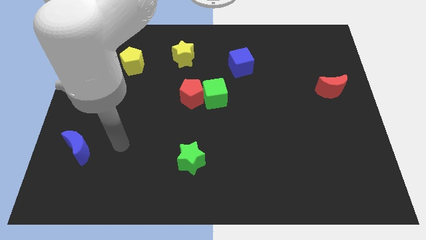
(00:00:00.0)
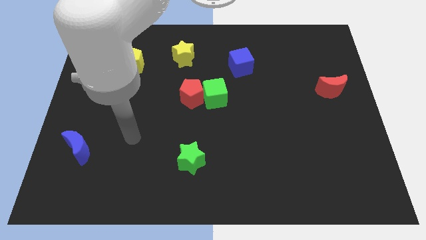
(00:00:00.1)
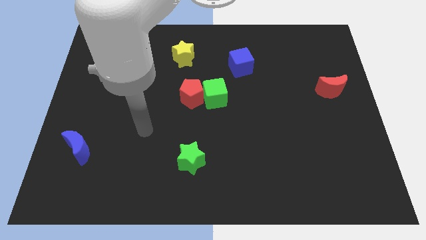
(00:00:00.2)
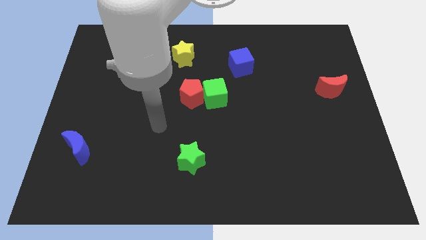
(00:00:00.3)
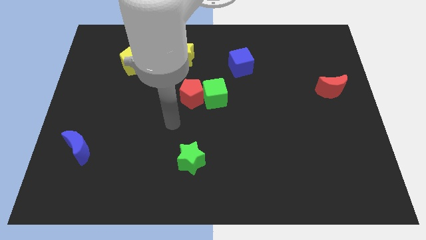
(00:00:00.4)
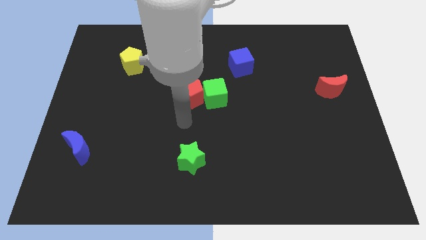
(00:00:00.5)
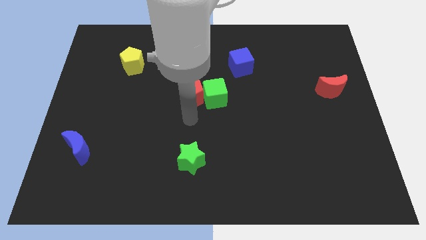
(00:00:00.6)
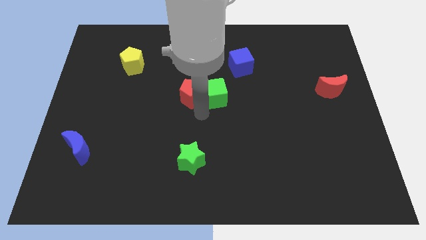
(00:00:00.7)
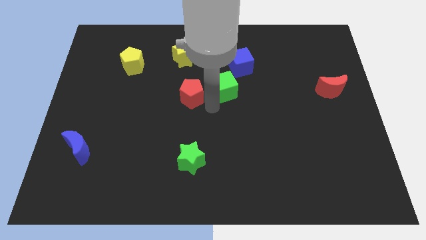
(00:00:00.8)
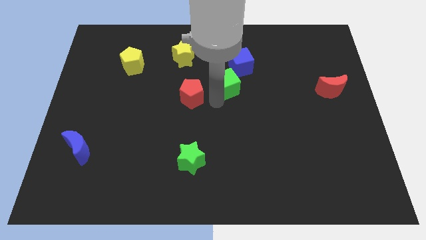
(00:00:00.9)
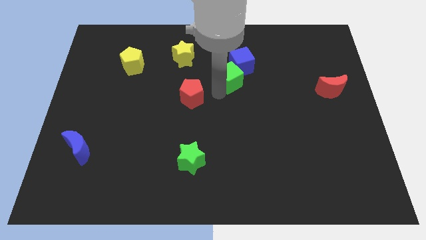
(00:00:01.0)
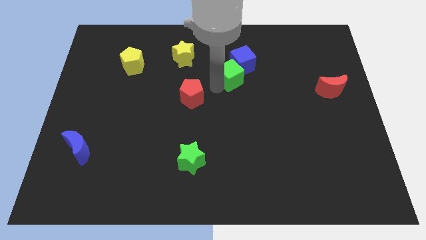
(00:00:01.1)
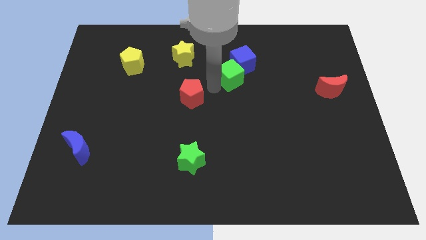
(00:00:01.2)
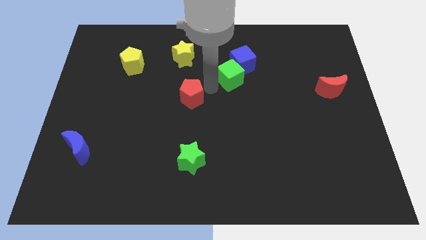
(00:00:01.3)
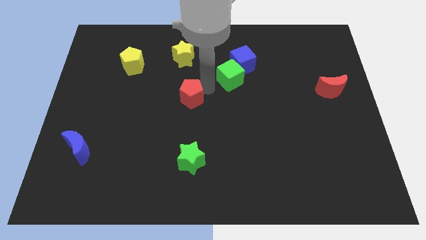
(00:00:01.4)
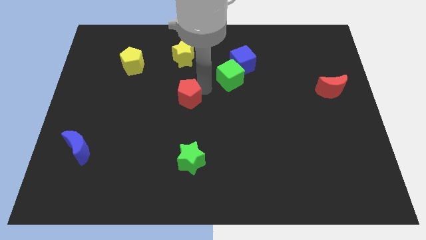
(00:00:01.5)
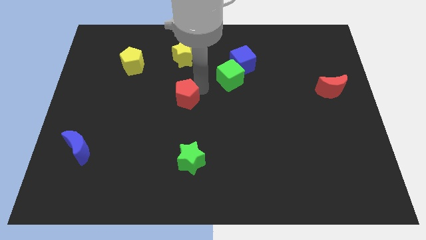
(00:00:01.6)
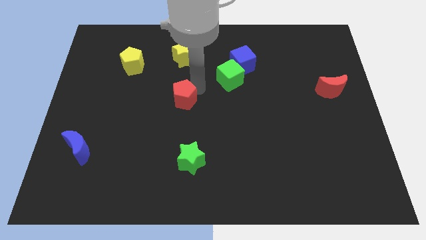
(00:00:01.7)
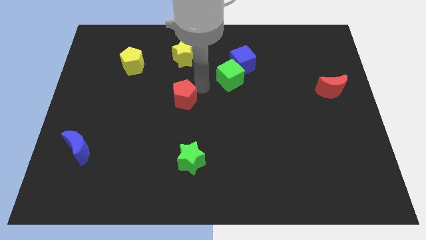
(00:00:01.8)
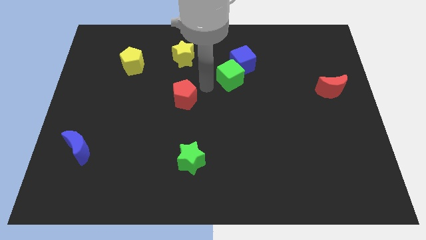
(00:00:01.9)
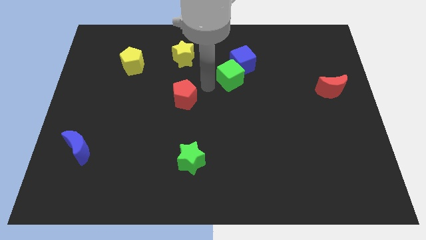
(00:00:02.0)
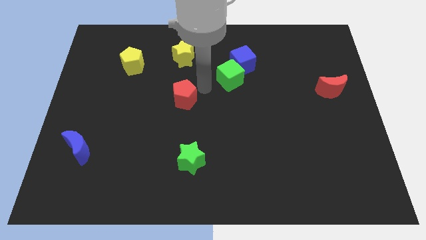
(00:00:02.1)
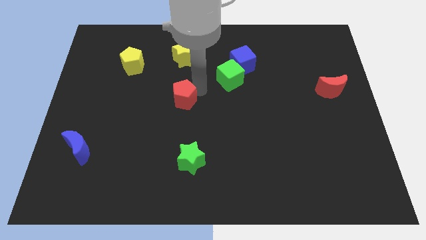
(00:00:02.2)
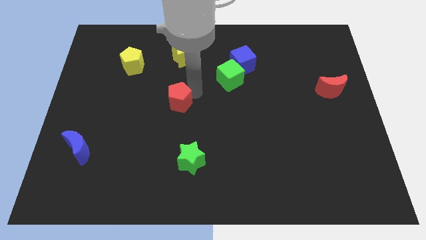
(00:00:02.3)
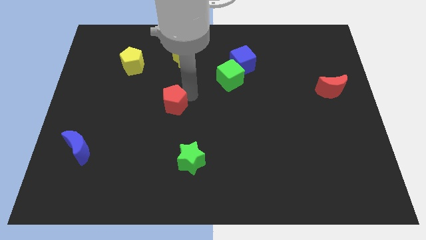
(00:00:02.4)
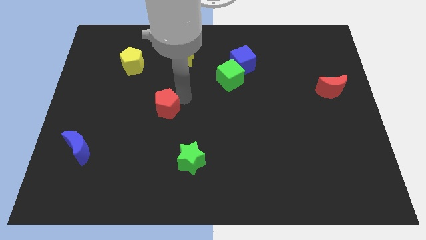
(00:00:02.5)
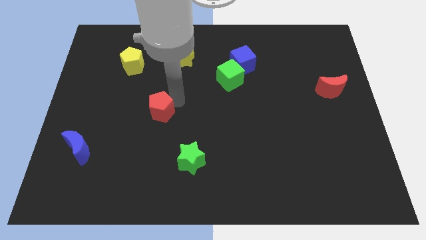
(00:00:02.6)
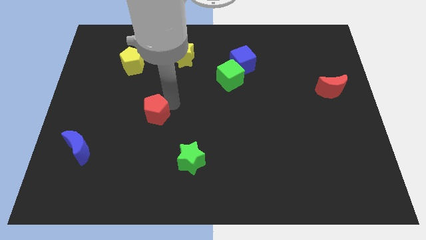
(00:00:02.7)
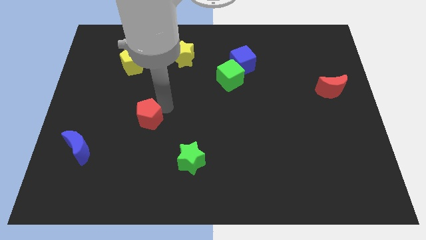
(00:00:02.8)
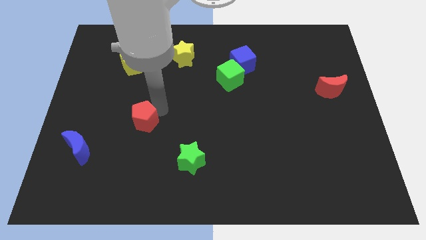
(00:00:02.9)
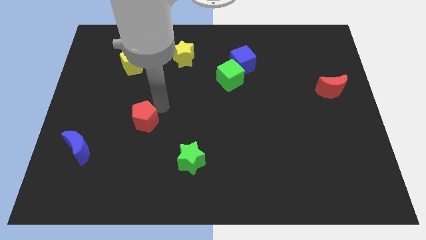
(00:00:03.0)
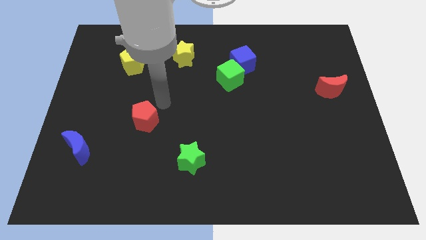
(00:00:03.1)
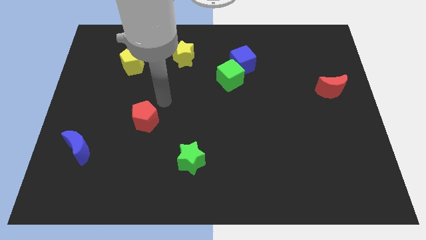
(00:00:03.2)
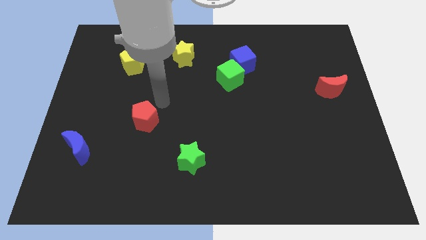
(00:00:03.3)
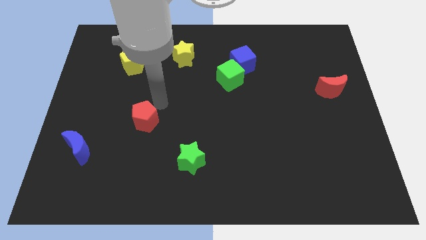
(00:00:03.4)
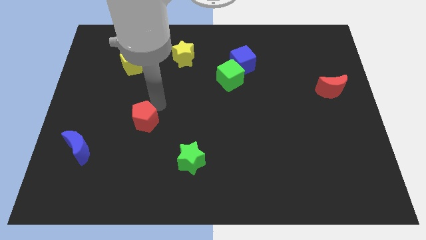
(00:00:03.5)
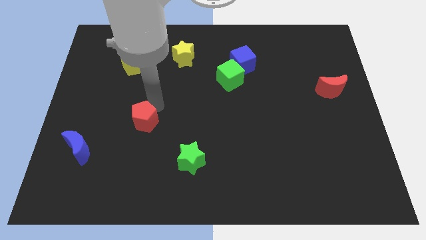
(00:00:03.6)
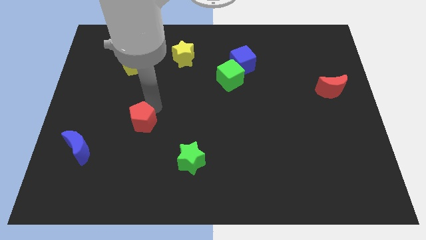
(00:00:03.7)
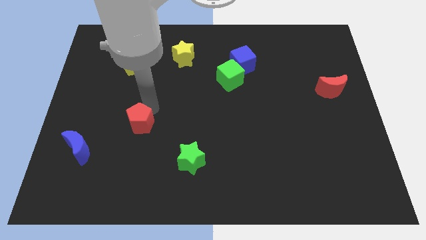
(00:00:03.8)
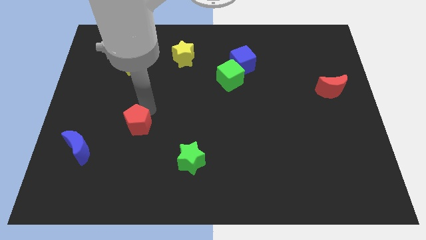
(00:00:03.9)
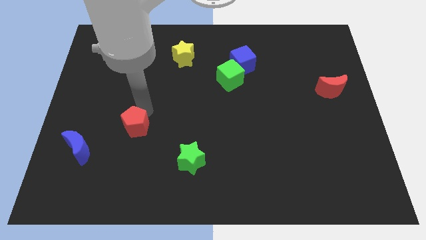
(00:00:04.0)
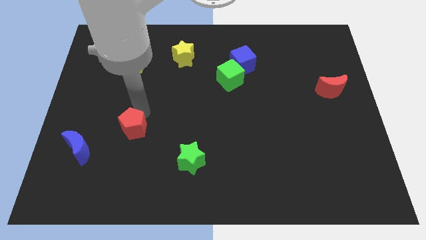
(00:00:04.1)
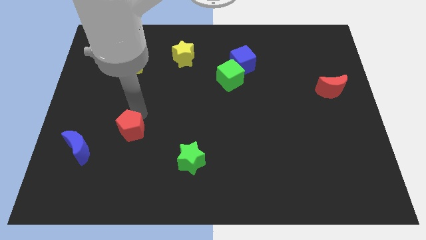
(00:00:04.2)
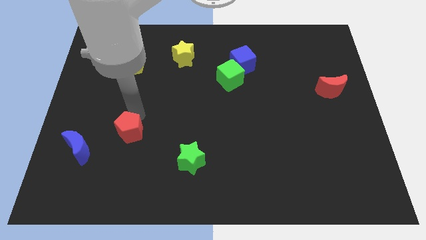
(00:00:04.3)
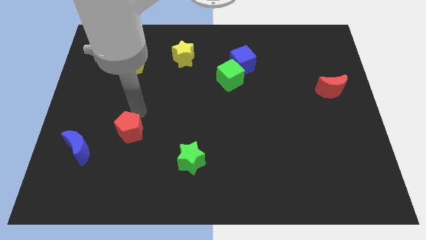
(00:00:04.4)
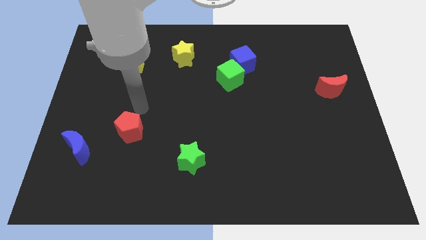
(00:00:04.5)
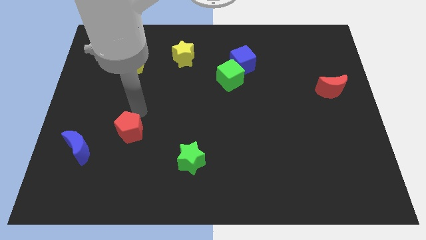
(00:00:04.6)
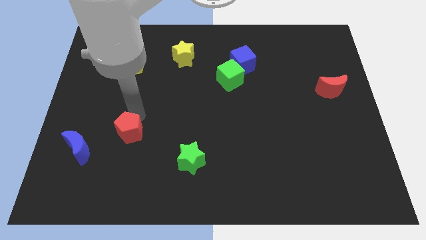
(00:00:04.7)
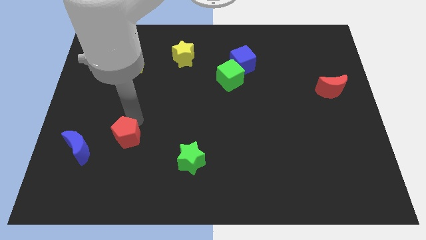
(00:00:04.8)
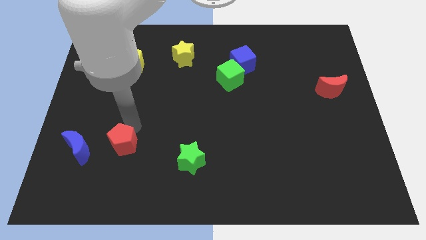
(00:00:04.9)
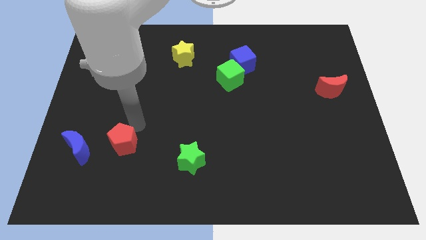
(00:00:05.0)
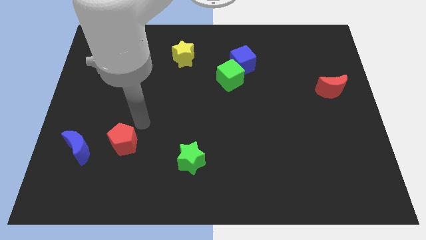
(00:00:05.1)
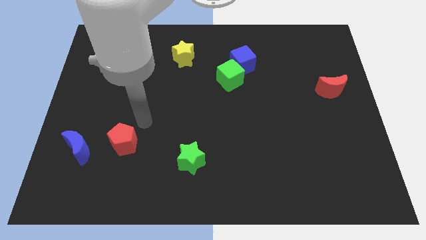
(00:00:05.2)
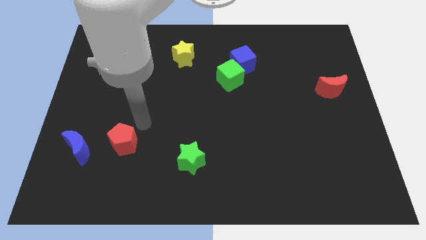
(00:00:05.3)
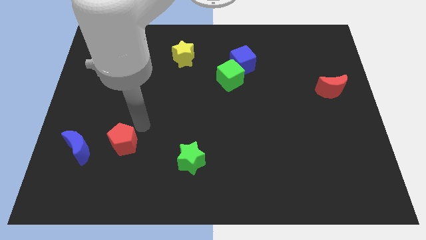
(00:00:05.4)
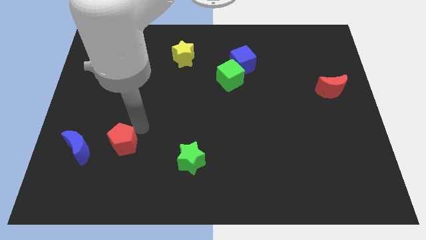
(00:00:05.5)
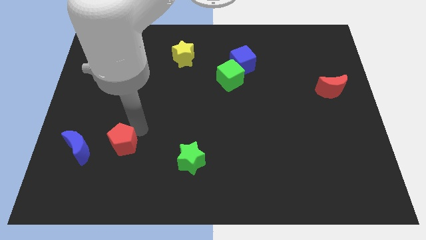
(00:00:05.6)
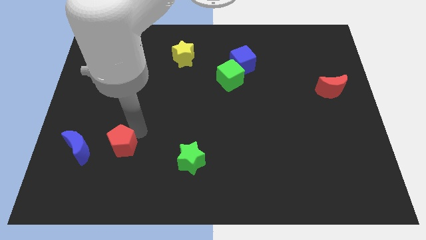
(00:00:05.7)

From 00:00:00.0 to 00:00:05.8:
slide the red pentagon down and left

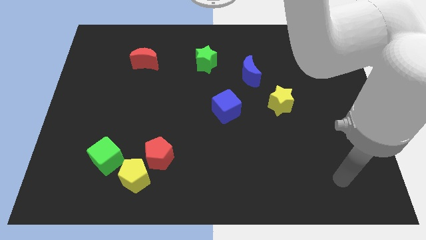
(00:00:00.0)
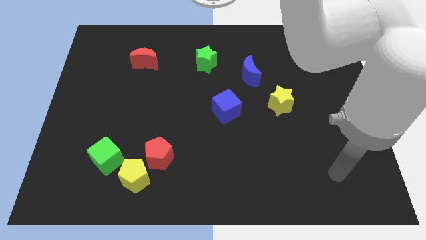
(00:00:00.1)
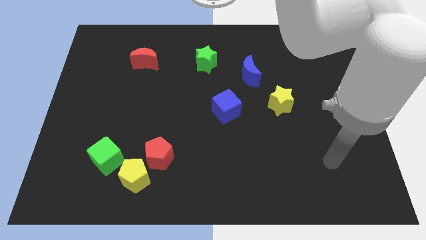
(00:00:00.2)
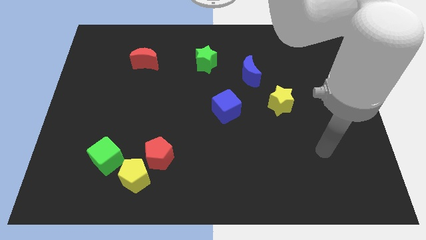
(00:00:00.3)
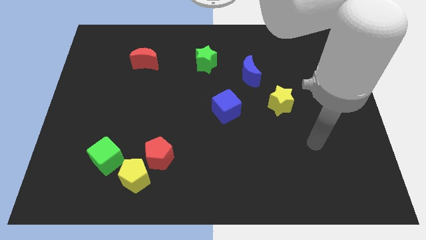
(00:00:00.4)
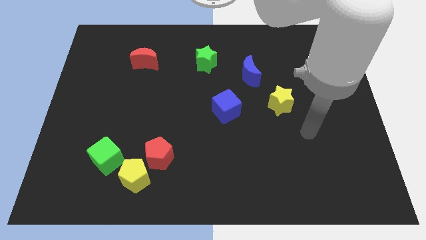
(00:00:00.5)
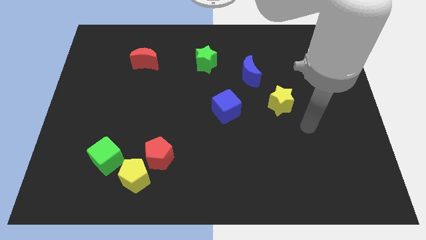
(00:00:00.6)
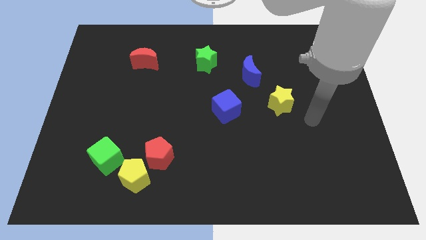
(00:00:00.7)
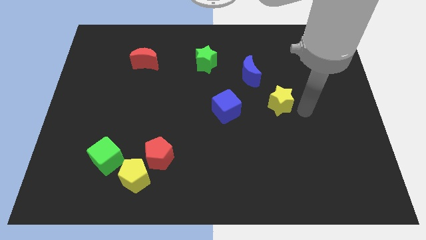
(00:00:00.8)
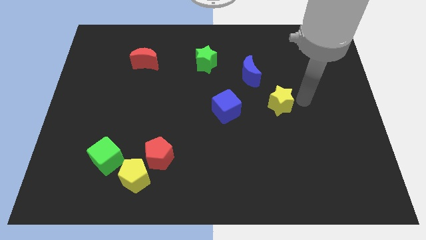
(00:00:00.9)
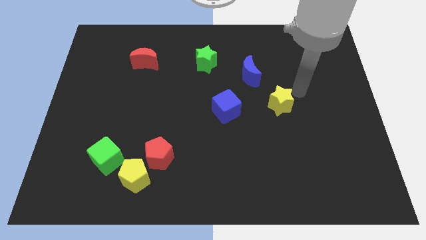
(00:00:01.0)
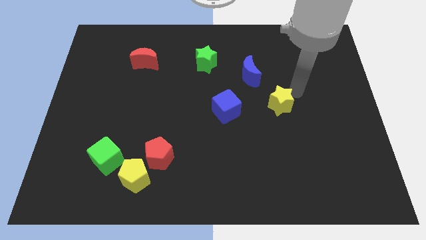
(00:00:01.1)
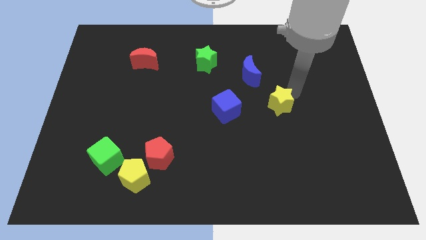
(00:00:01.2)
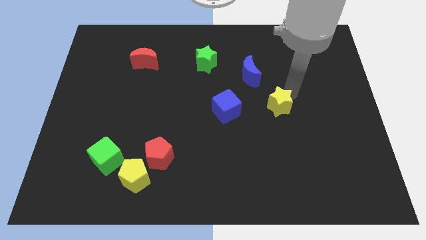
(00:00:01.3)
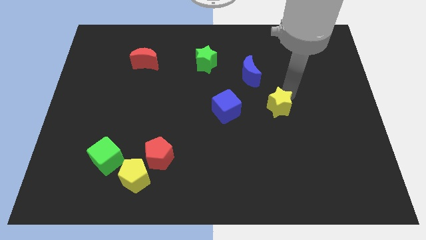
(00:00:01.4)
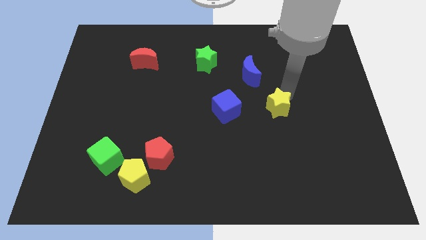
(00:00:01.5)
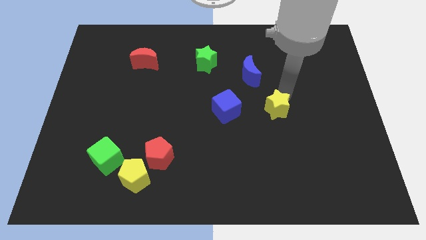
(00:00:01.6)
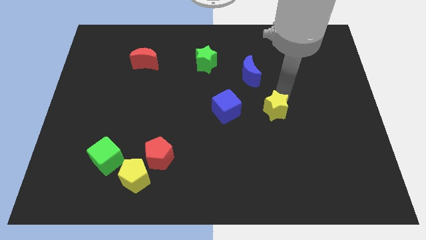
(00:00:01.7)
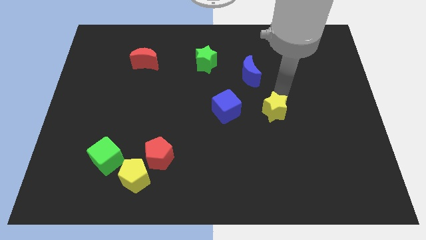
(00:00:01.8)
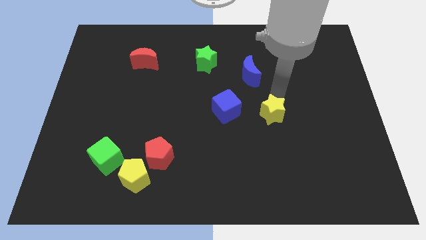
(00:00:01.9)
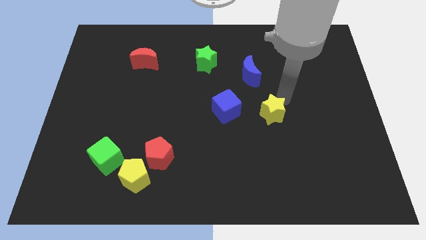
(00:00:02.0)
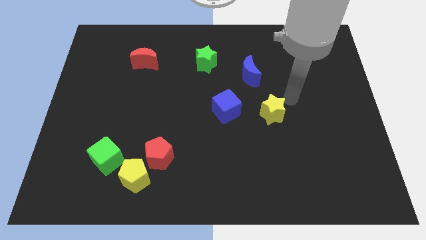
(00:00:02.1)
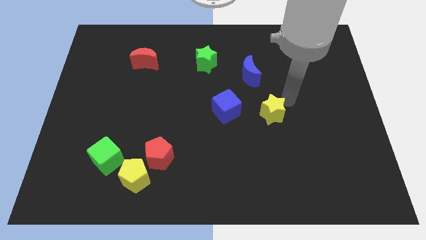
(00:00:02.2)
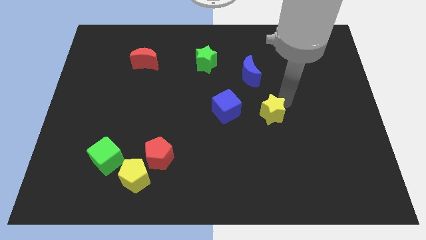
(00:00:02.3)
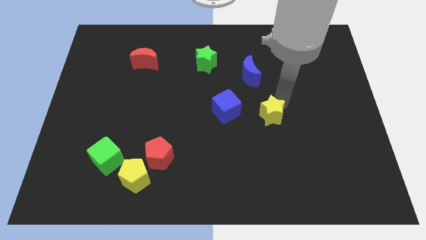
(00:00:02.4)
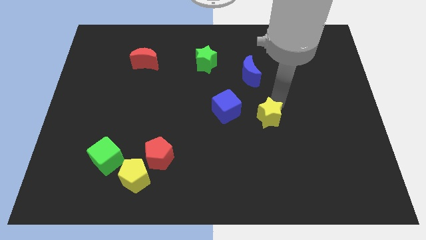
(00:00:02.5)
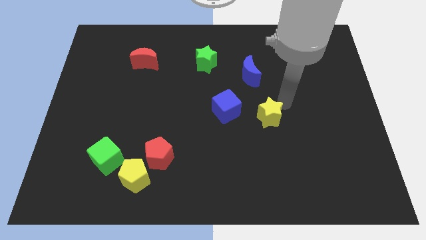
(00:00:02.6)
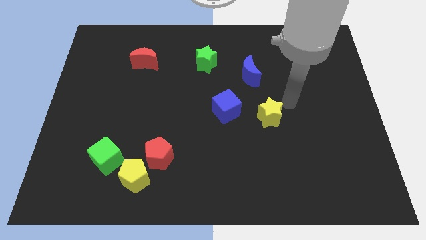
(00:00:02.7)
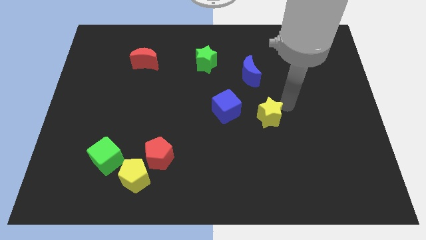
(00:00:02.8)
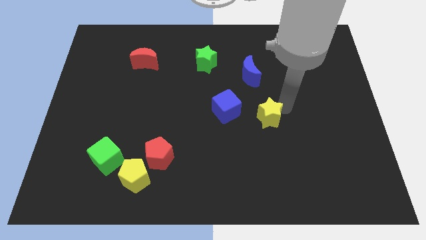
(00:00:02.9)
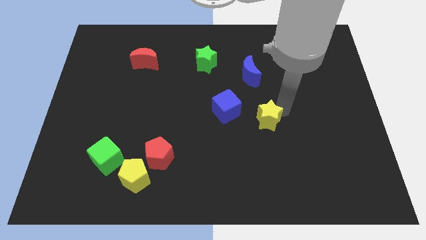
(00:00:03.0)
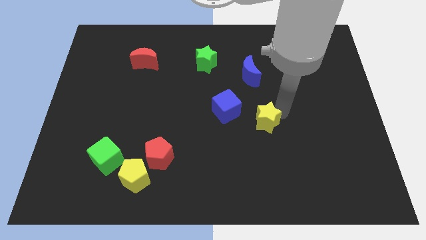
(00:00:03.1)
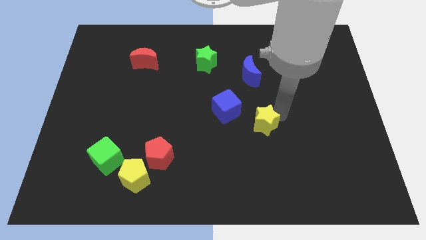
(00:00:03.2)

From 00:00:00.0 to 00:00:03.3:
slide the yellow star a little downwards and then to the left
